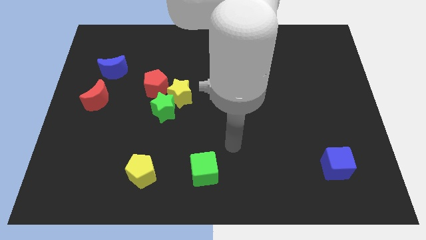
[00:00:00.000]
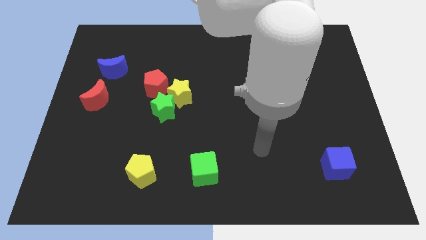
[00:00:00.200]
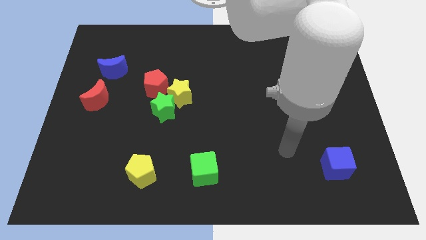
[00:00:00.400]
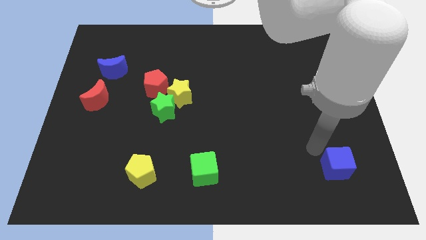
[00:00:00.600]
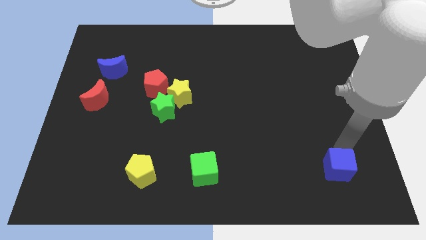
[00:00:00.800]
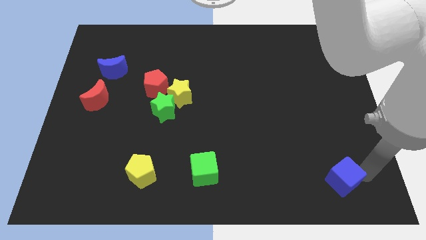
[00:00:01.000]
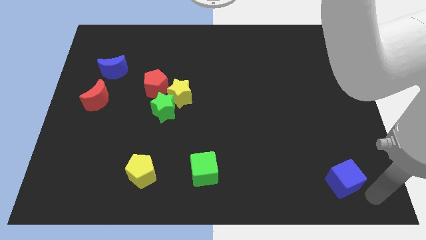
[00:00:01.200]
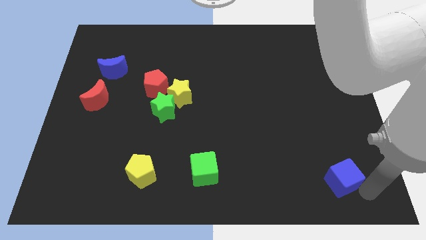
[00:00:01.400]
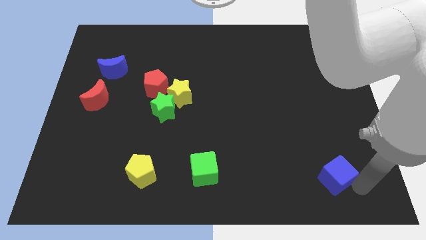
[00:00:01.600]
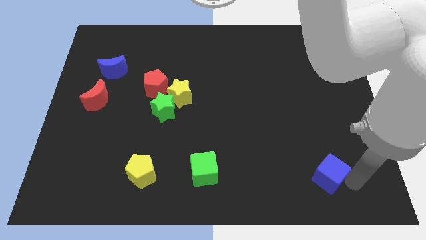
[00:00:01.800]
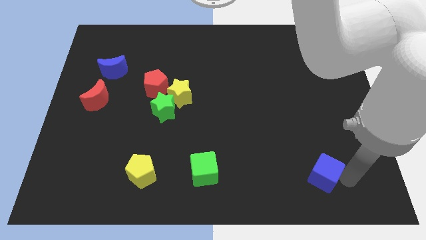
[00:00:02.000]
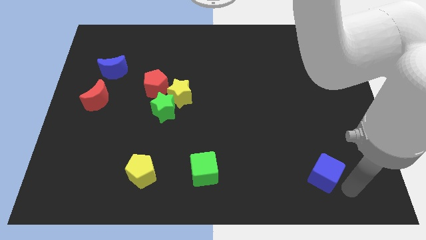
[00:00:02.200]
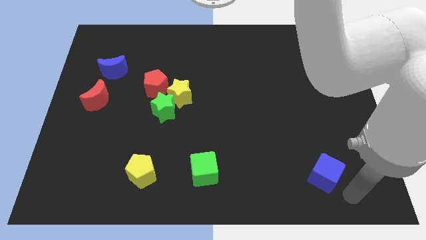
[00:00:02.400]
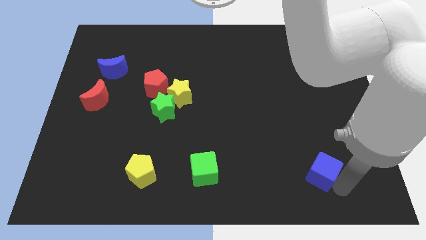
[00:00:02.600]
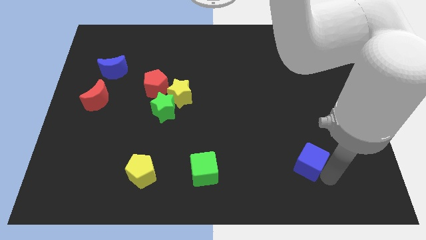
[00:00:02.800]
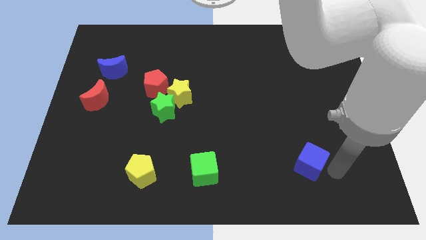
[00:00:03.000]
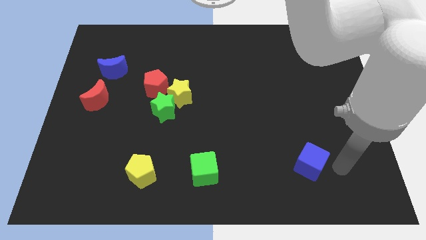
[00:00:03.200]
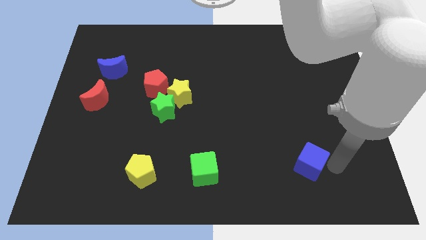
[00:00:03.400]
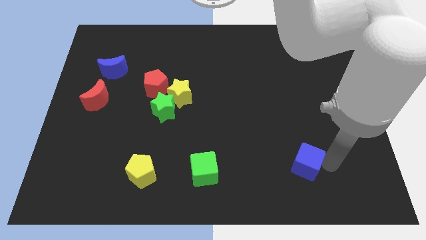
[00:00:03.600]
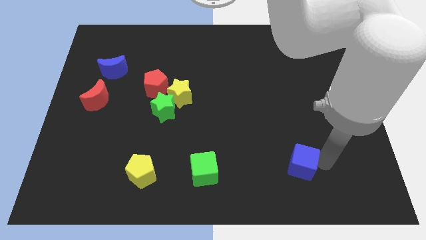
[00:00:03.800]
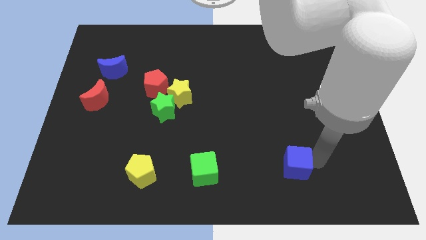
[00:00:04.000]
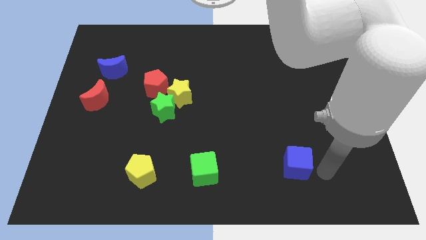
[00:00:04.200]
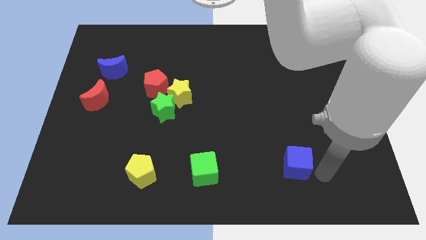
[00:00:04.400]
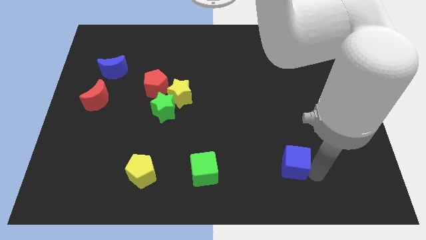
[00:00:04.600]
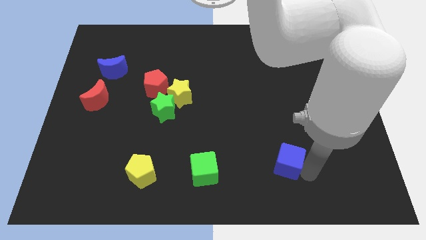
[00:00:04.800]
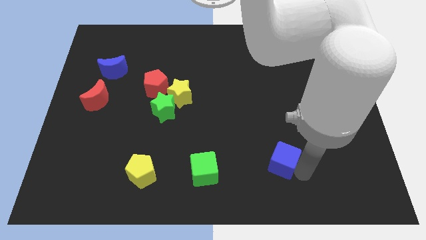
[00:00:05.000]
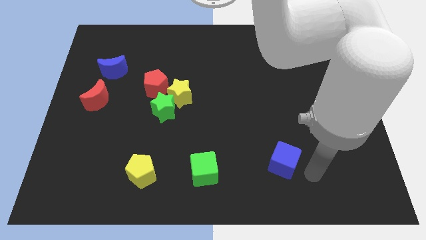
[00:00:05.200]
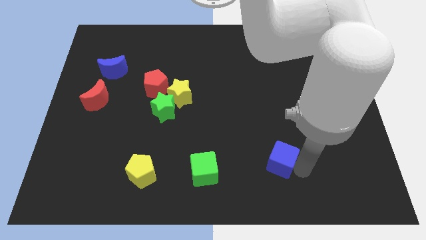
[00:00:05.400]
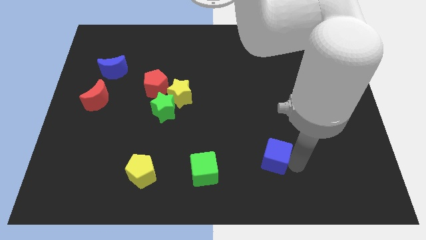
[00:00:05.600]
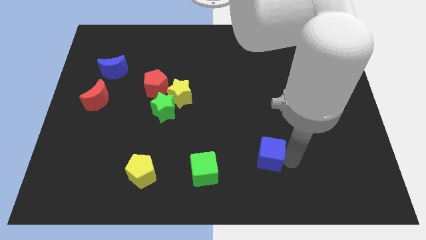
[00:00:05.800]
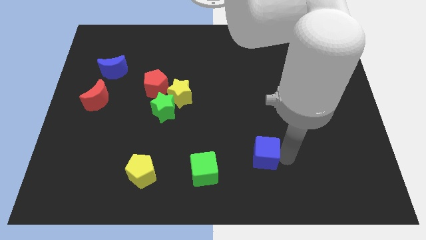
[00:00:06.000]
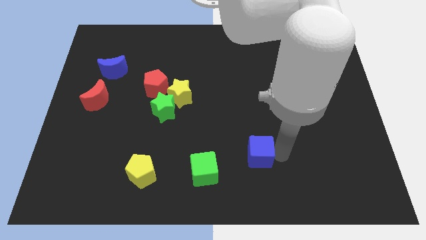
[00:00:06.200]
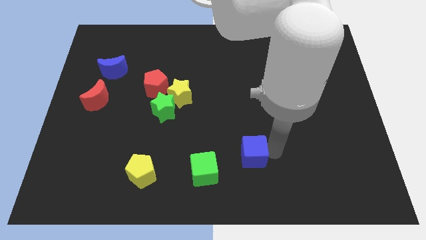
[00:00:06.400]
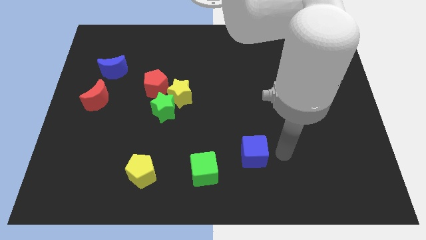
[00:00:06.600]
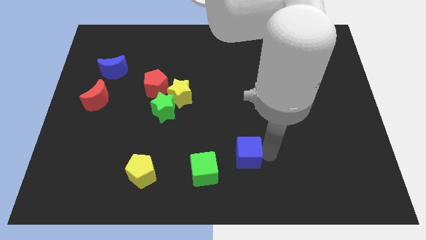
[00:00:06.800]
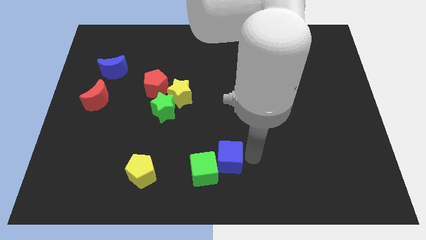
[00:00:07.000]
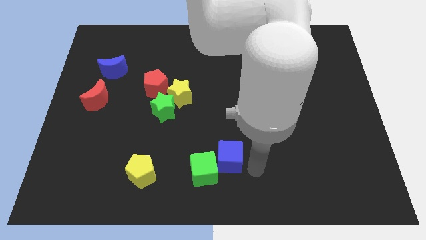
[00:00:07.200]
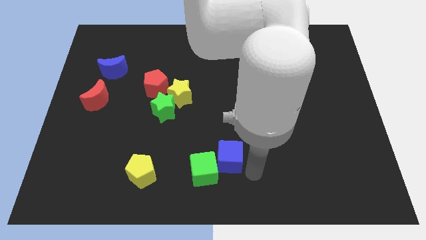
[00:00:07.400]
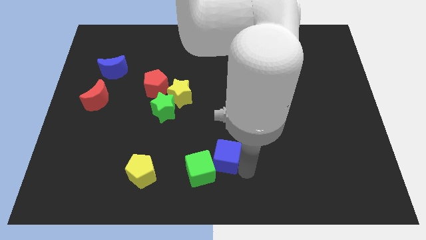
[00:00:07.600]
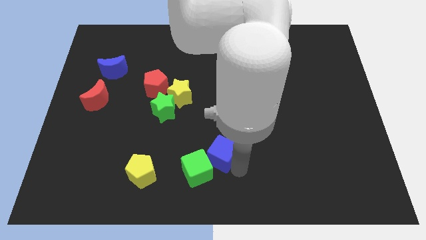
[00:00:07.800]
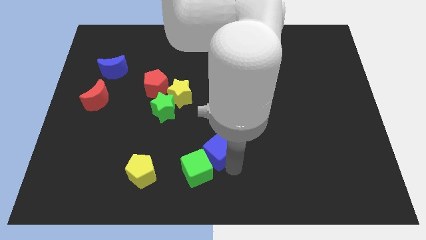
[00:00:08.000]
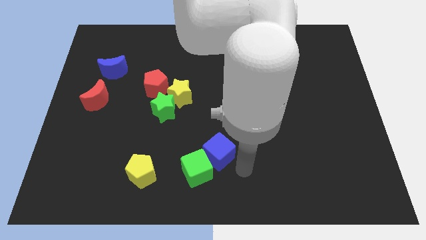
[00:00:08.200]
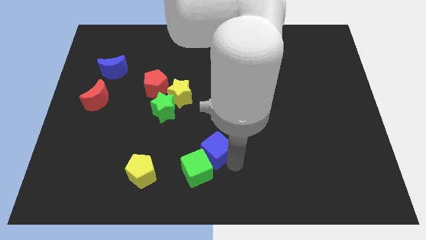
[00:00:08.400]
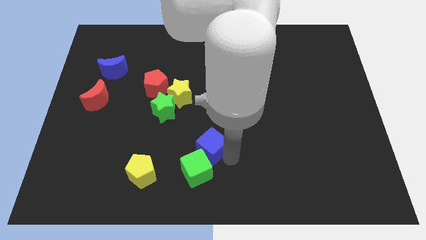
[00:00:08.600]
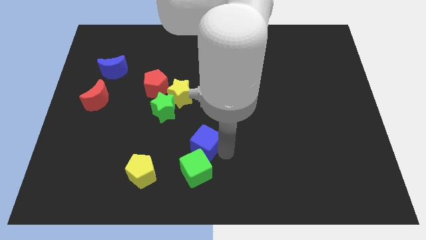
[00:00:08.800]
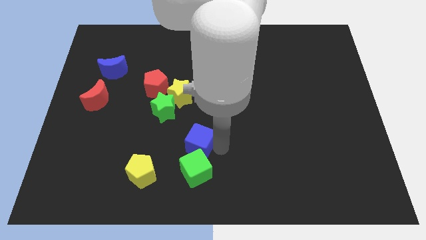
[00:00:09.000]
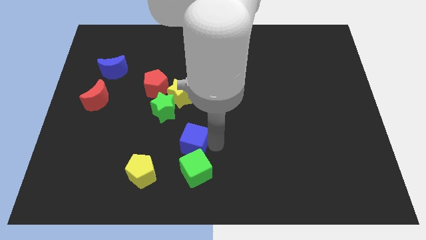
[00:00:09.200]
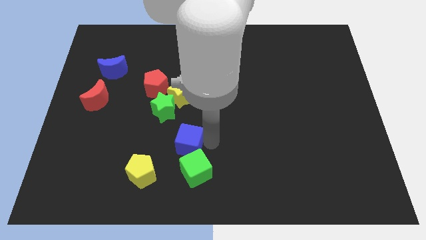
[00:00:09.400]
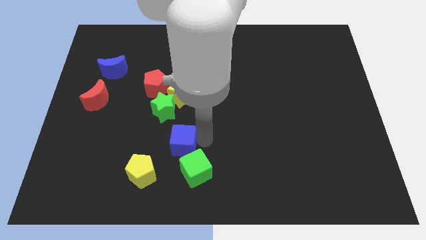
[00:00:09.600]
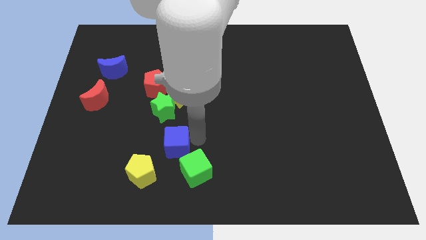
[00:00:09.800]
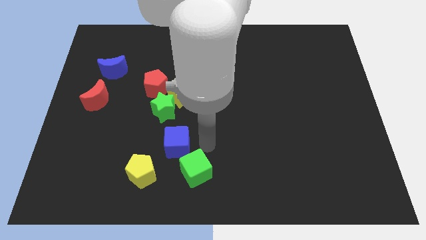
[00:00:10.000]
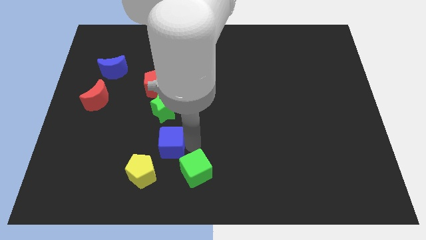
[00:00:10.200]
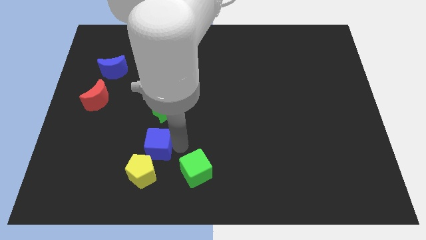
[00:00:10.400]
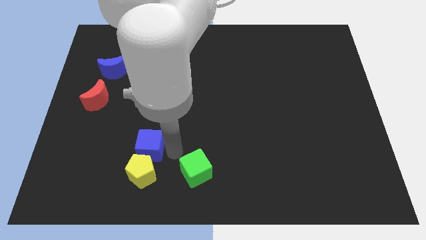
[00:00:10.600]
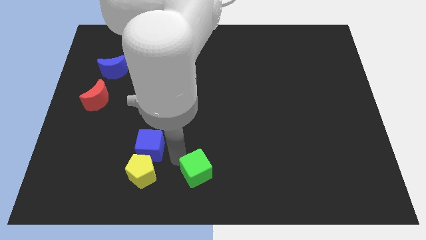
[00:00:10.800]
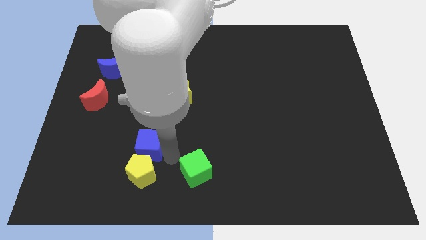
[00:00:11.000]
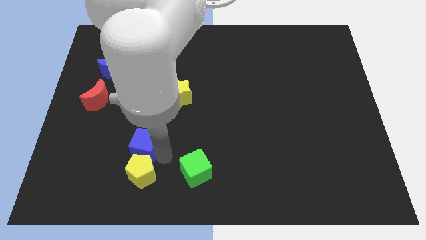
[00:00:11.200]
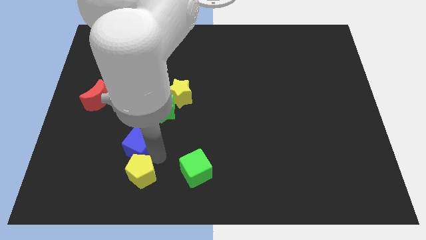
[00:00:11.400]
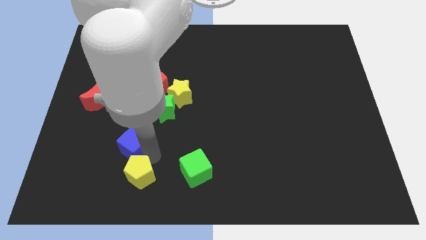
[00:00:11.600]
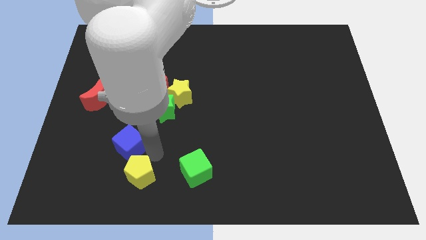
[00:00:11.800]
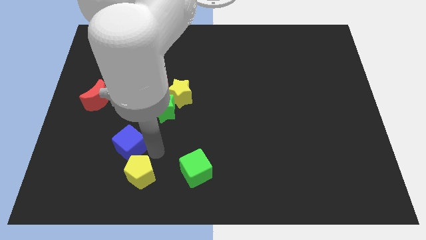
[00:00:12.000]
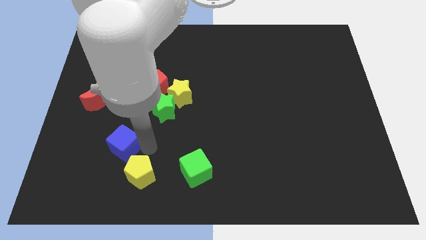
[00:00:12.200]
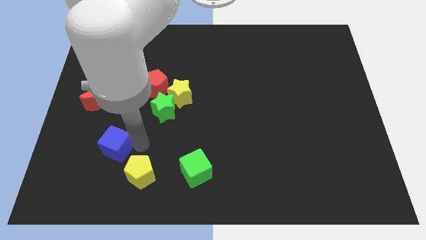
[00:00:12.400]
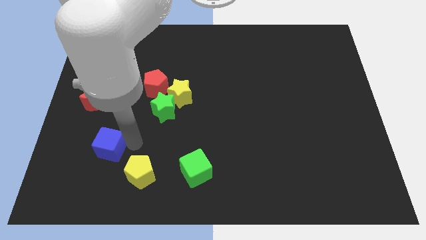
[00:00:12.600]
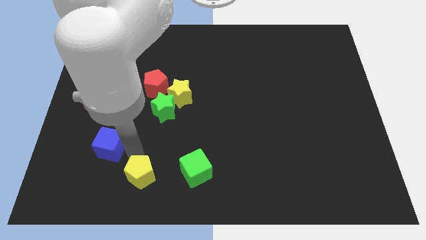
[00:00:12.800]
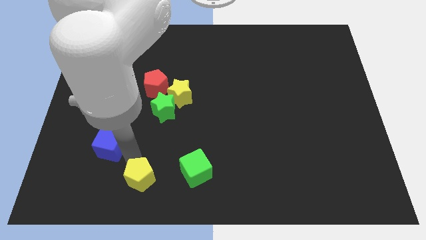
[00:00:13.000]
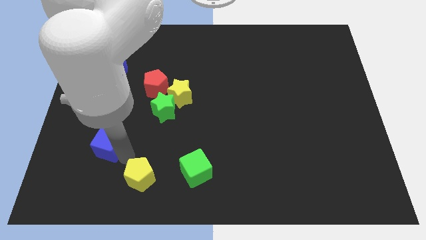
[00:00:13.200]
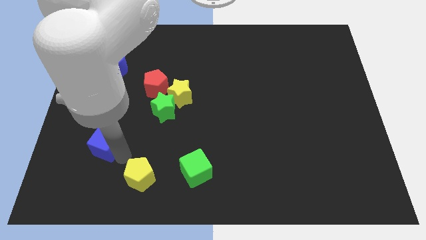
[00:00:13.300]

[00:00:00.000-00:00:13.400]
push the blue cube below the red moon

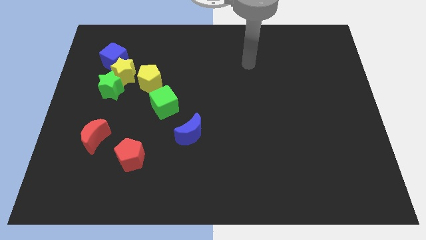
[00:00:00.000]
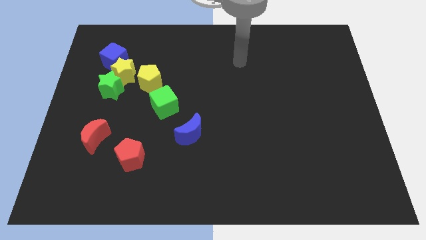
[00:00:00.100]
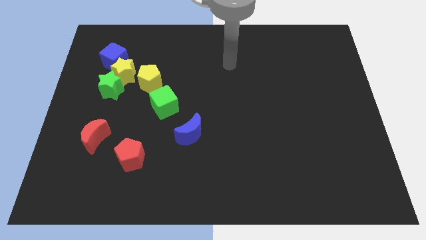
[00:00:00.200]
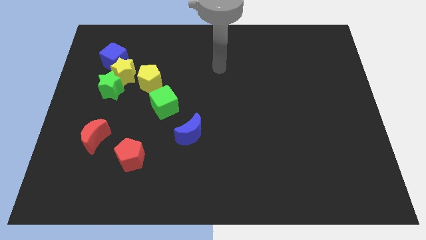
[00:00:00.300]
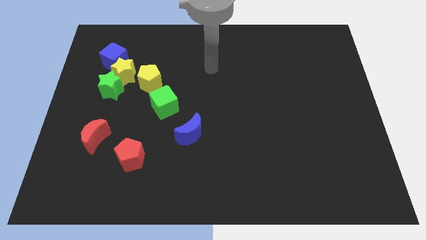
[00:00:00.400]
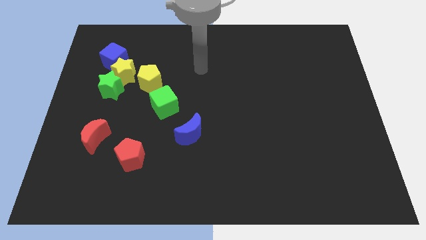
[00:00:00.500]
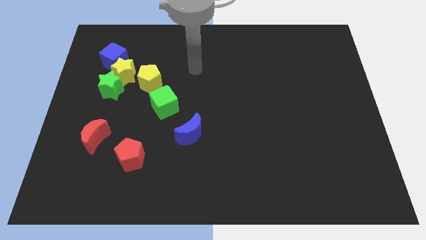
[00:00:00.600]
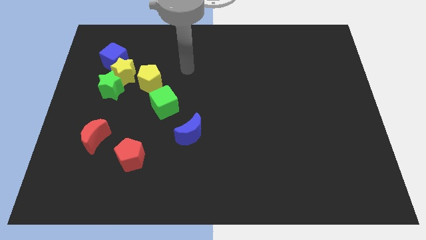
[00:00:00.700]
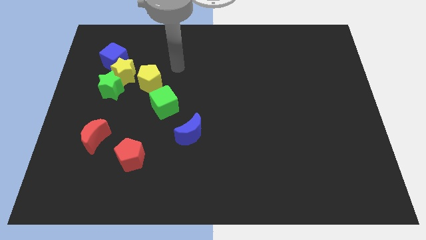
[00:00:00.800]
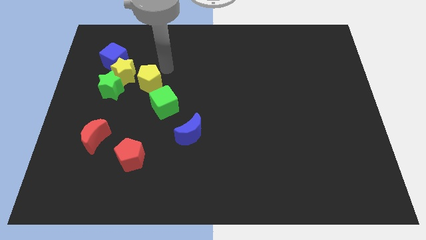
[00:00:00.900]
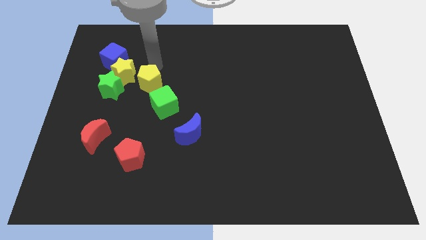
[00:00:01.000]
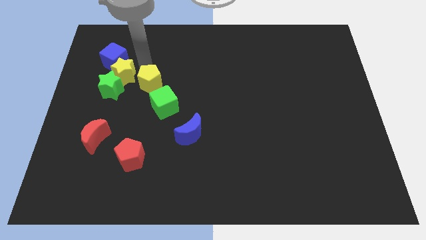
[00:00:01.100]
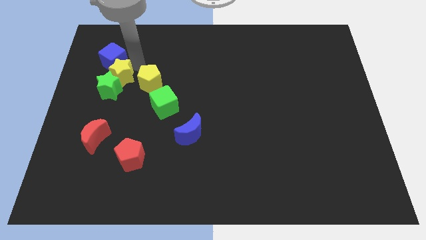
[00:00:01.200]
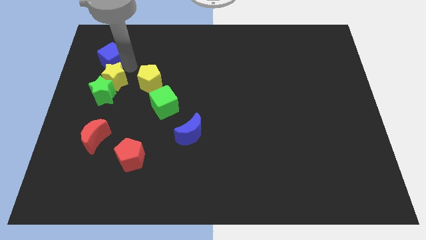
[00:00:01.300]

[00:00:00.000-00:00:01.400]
push the green star left of the green cube
